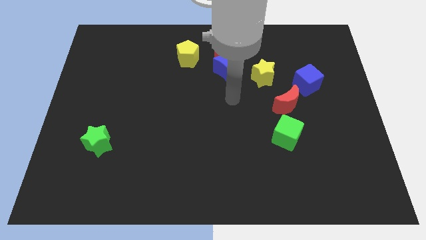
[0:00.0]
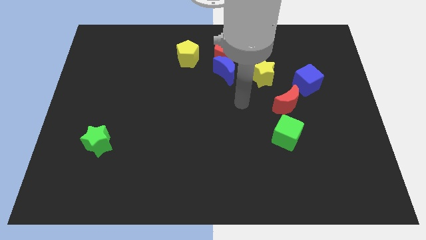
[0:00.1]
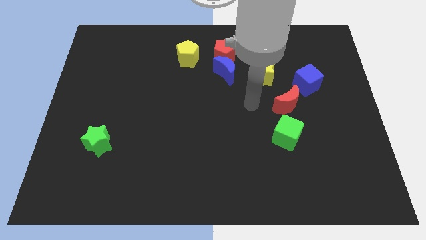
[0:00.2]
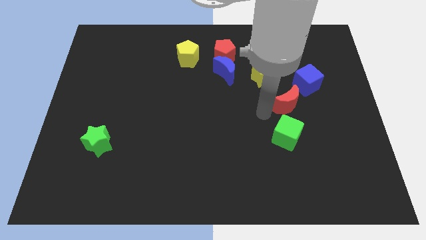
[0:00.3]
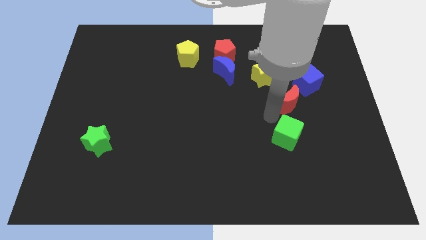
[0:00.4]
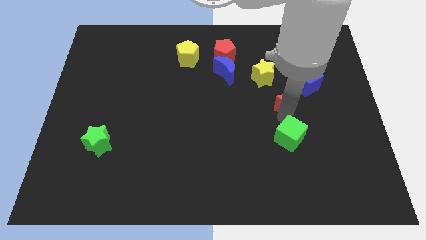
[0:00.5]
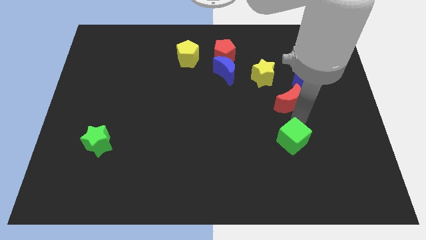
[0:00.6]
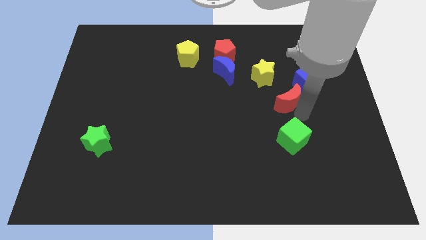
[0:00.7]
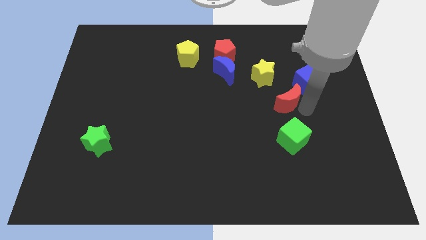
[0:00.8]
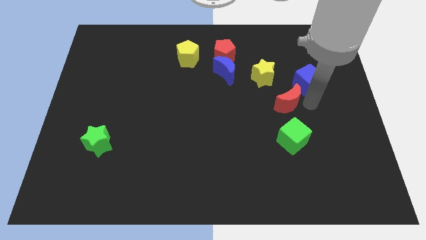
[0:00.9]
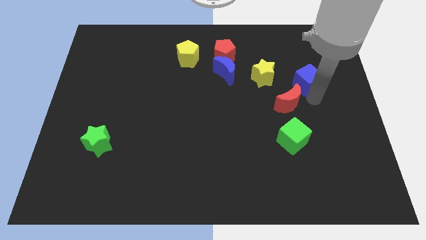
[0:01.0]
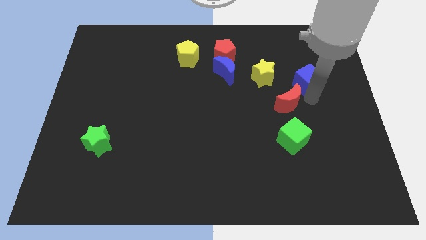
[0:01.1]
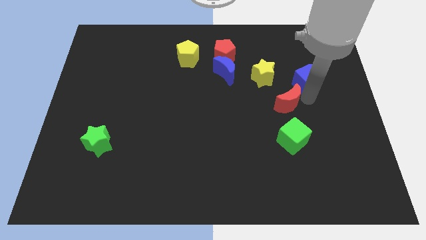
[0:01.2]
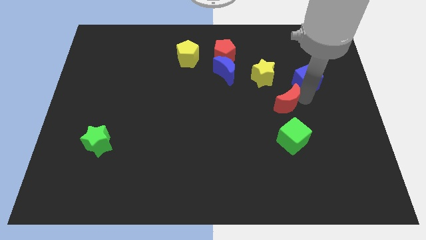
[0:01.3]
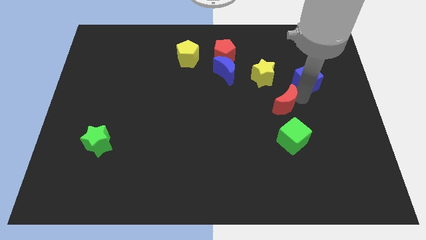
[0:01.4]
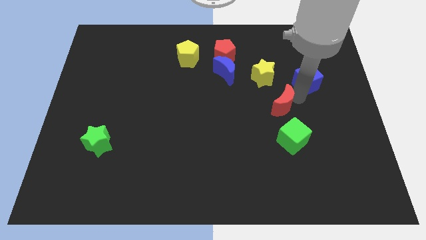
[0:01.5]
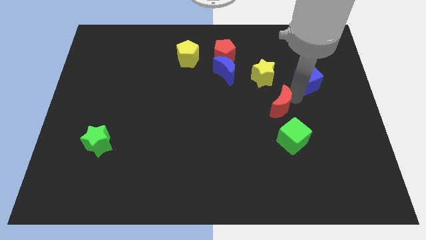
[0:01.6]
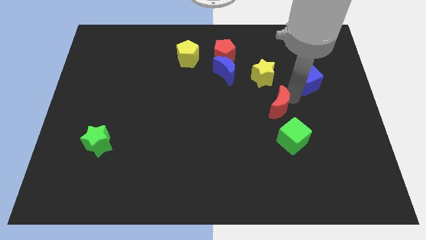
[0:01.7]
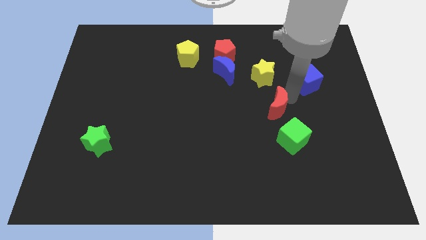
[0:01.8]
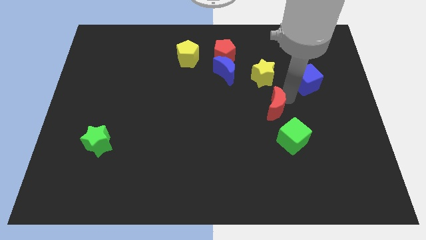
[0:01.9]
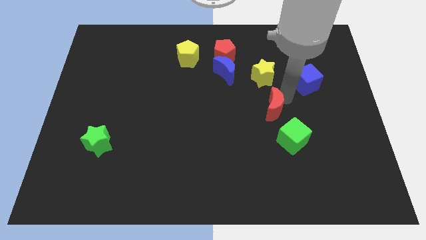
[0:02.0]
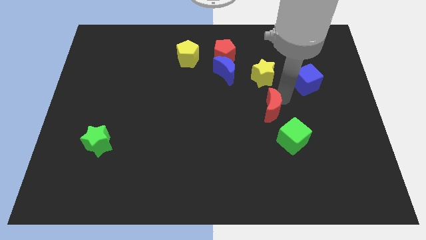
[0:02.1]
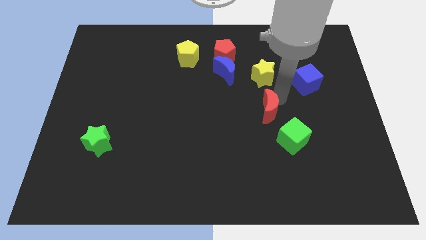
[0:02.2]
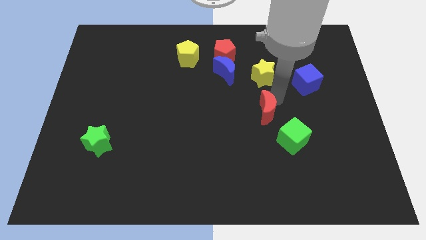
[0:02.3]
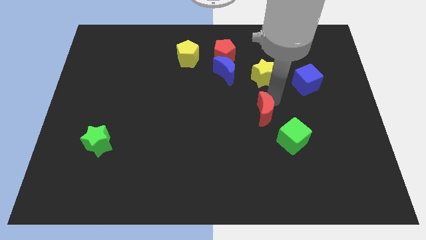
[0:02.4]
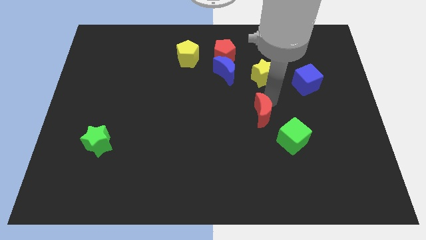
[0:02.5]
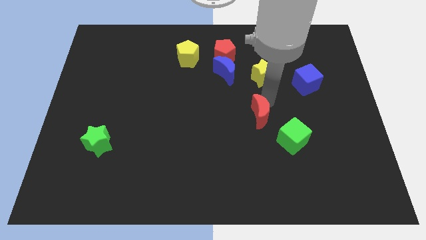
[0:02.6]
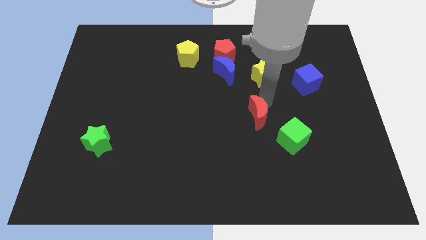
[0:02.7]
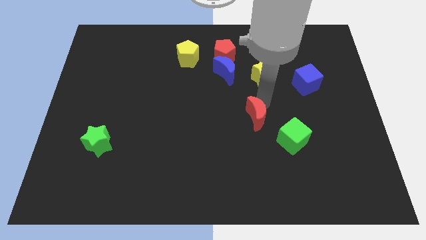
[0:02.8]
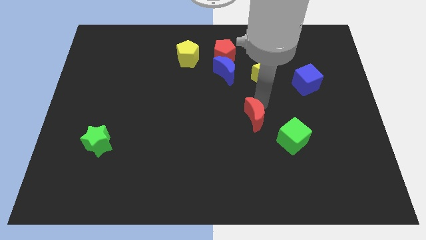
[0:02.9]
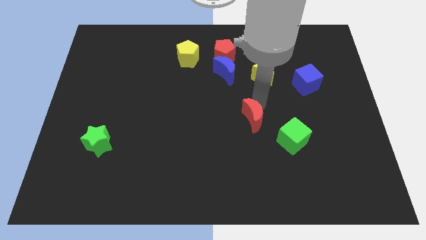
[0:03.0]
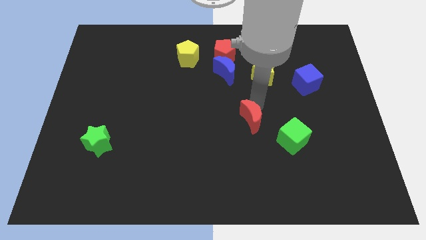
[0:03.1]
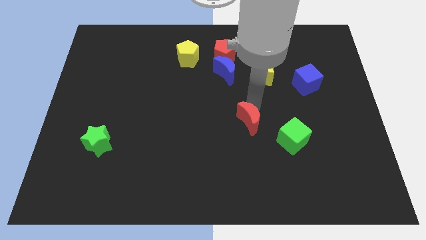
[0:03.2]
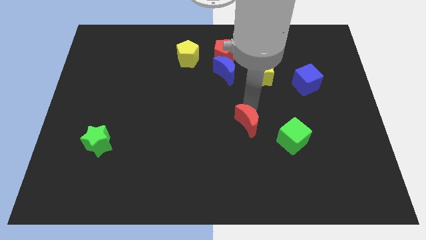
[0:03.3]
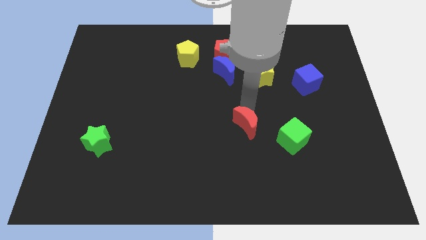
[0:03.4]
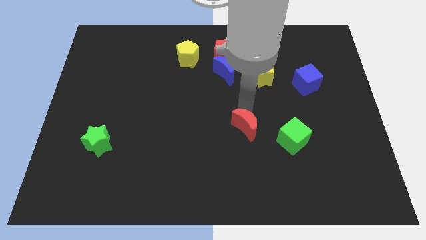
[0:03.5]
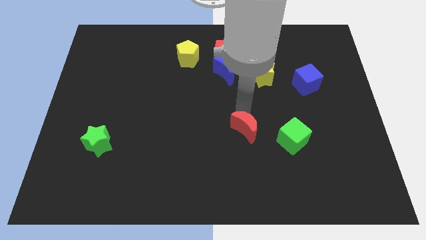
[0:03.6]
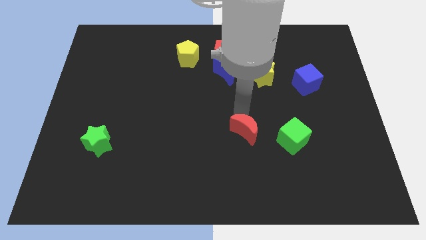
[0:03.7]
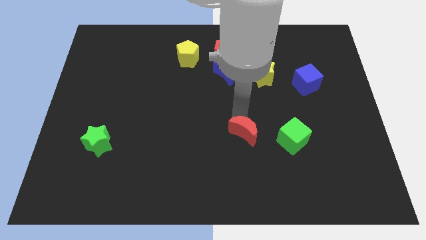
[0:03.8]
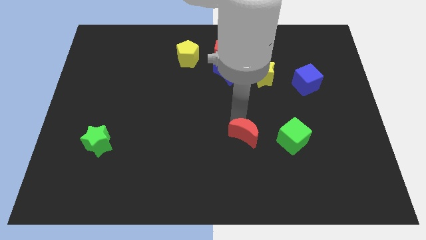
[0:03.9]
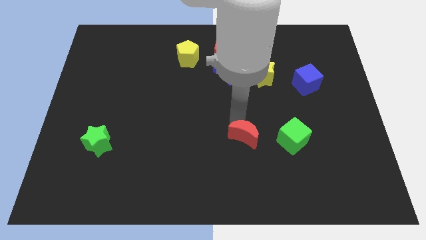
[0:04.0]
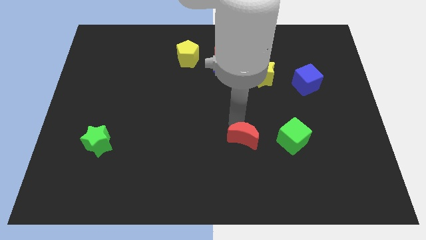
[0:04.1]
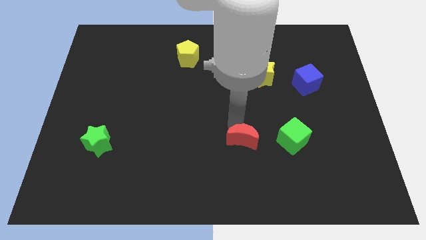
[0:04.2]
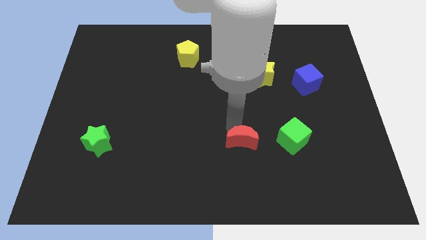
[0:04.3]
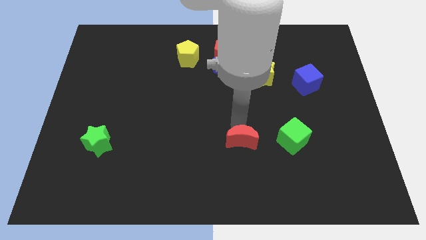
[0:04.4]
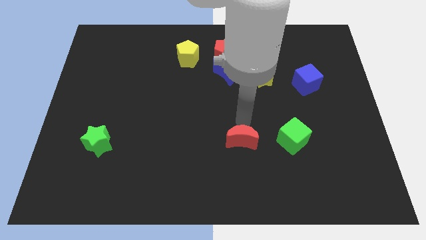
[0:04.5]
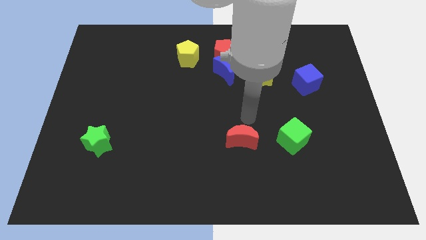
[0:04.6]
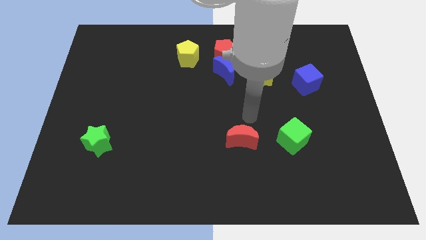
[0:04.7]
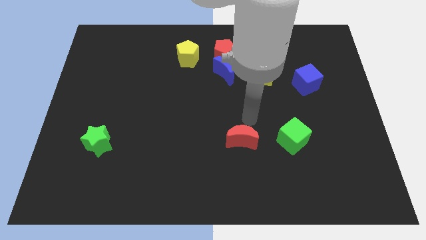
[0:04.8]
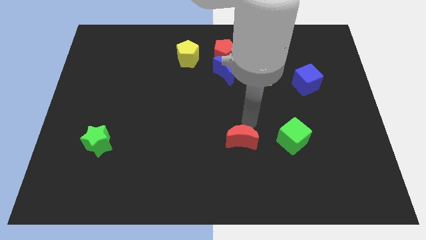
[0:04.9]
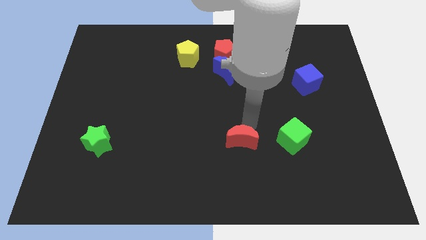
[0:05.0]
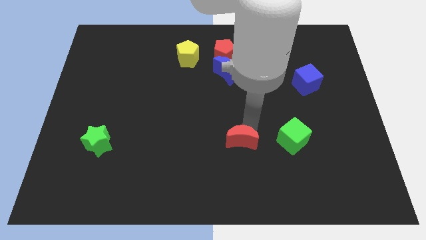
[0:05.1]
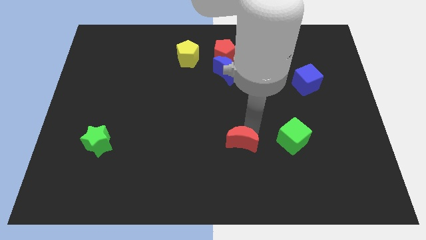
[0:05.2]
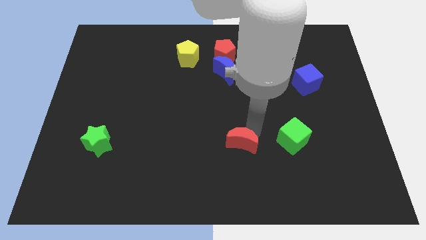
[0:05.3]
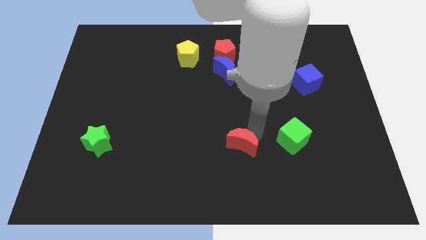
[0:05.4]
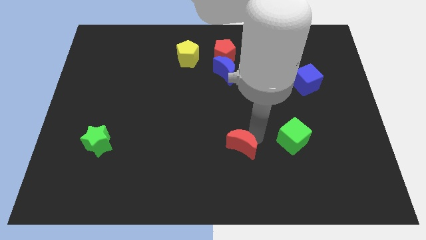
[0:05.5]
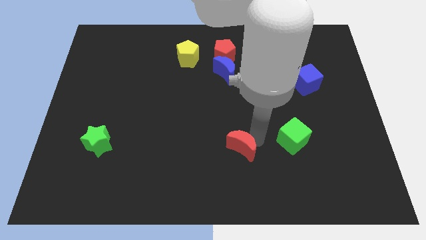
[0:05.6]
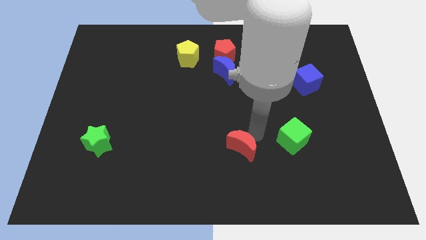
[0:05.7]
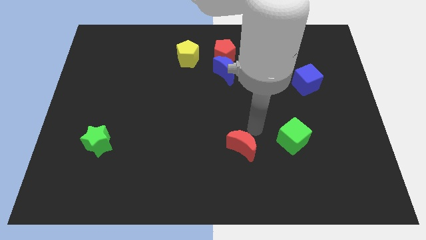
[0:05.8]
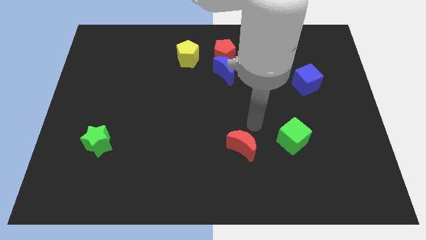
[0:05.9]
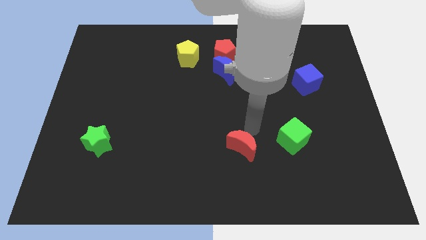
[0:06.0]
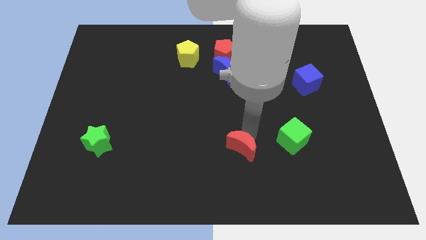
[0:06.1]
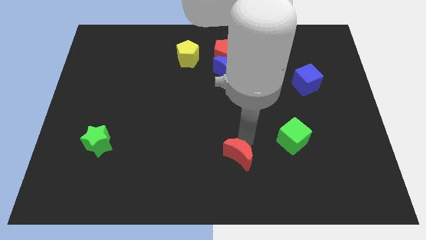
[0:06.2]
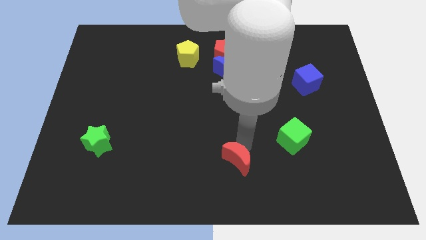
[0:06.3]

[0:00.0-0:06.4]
slide the red moon to the bottom
